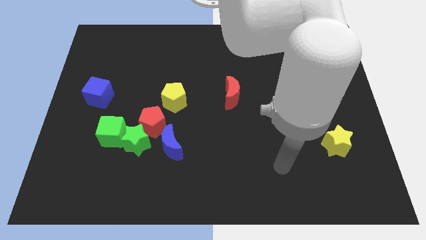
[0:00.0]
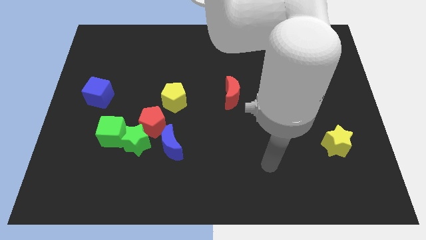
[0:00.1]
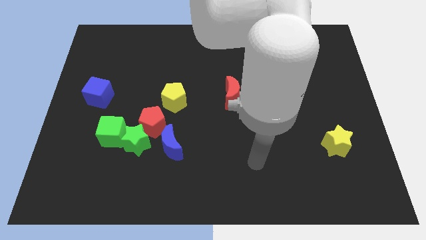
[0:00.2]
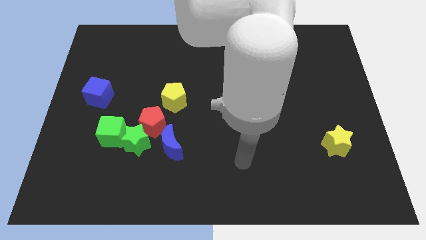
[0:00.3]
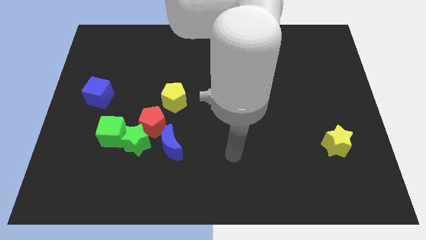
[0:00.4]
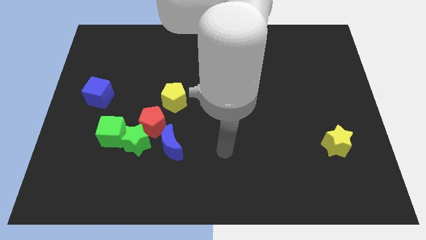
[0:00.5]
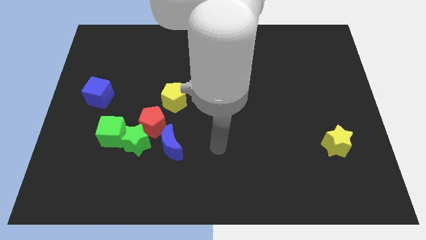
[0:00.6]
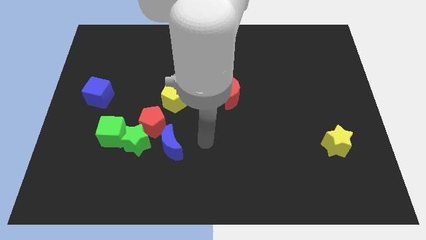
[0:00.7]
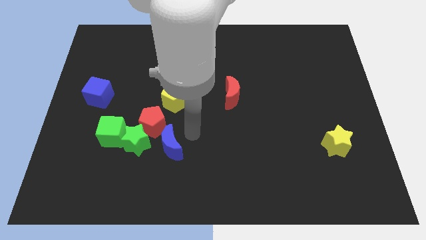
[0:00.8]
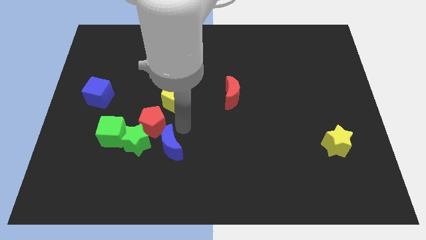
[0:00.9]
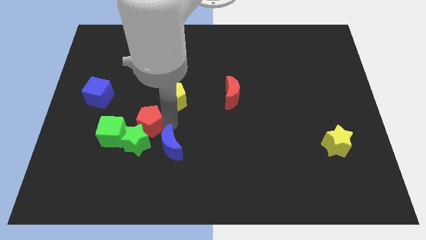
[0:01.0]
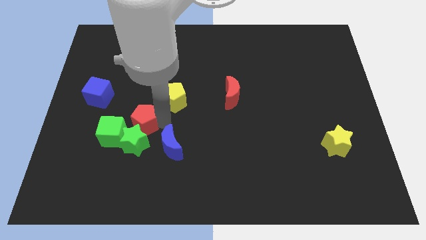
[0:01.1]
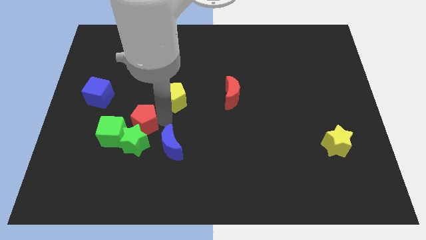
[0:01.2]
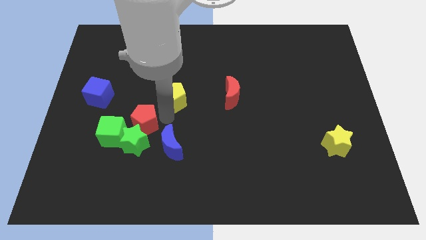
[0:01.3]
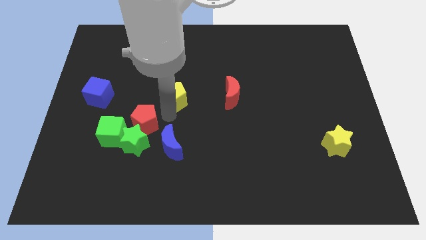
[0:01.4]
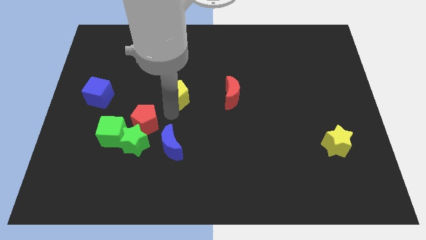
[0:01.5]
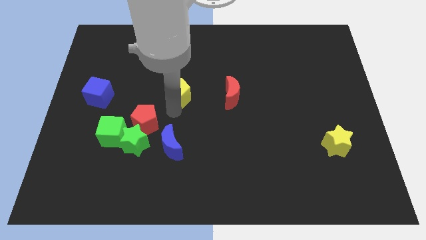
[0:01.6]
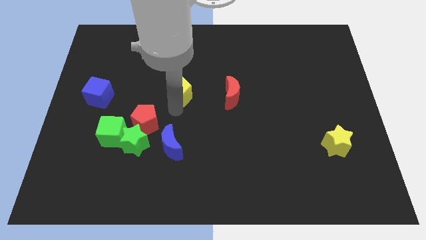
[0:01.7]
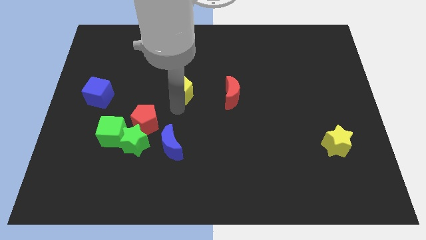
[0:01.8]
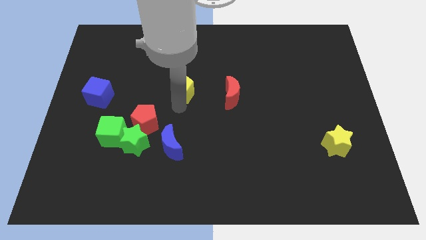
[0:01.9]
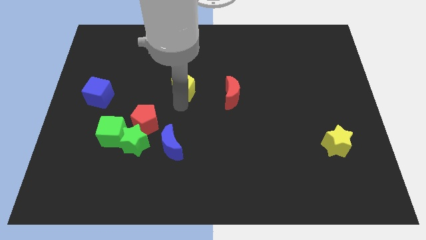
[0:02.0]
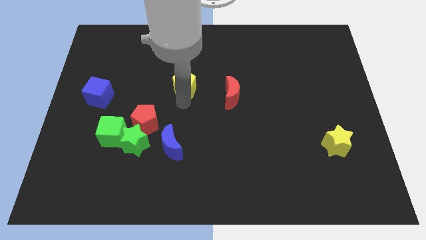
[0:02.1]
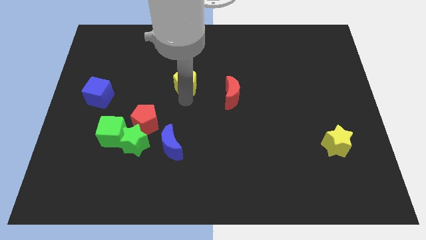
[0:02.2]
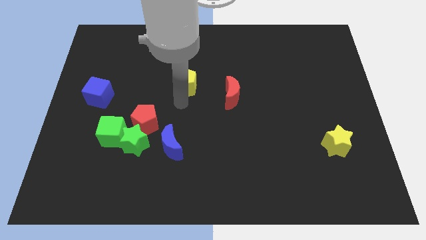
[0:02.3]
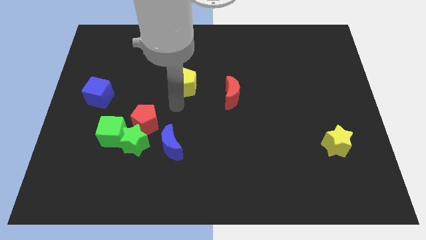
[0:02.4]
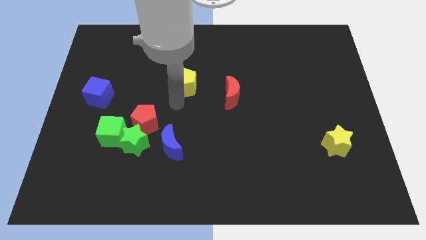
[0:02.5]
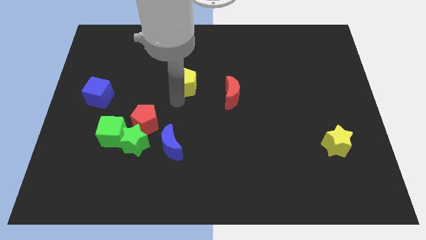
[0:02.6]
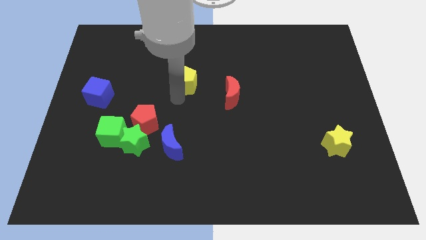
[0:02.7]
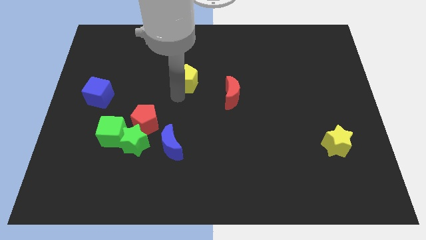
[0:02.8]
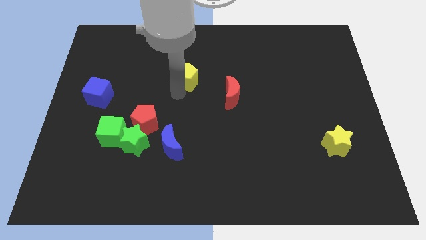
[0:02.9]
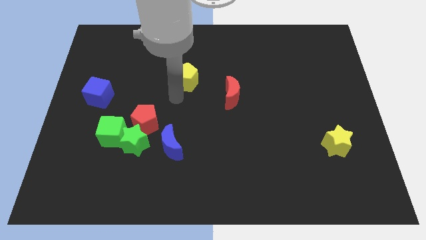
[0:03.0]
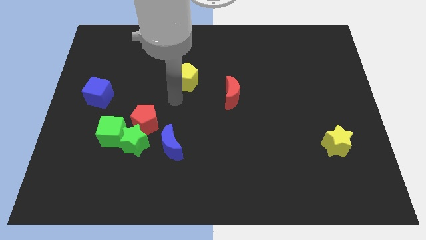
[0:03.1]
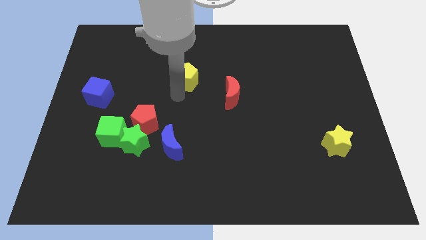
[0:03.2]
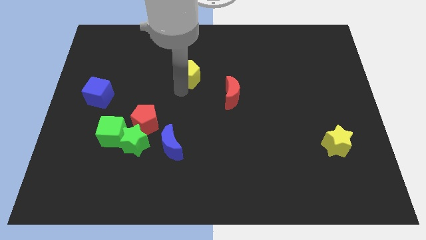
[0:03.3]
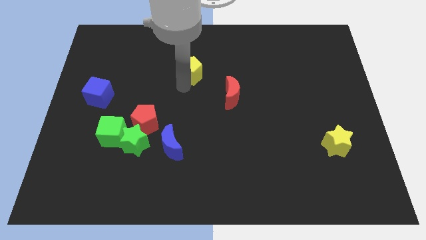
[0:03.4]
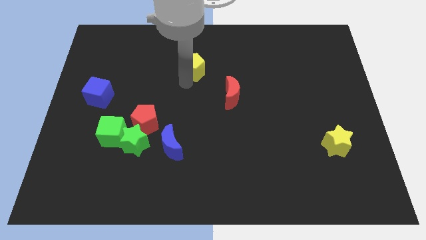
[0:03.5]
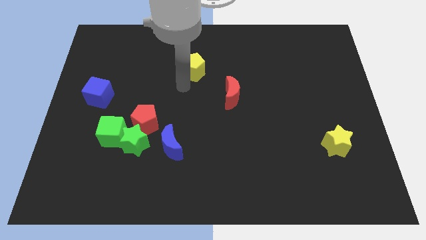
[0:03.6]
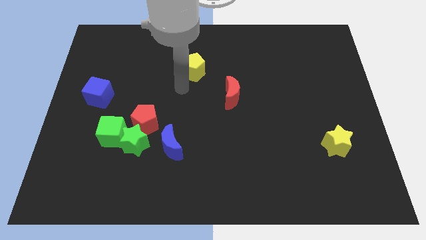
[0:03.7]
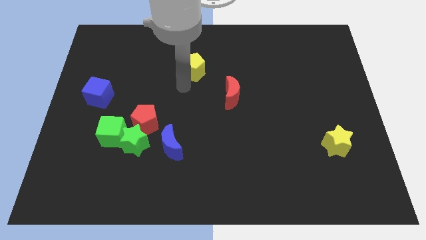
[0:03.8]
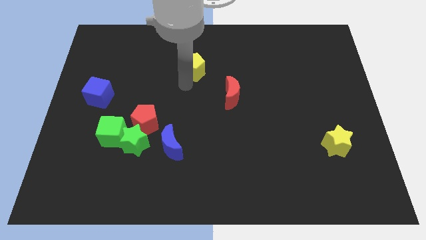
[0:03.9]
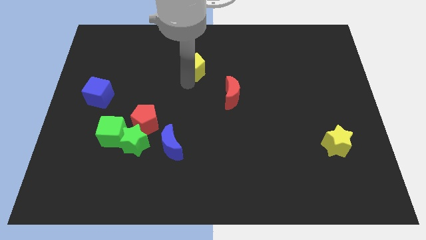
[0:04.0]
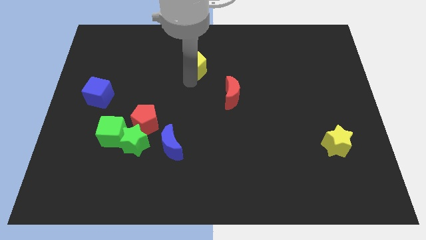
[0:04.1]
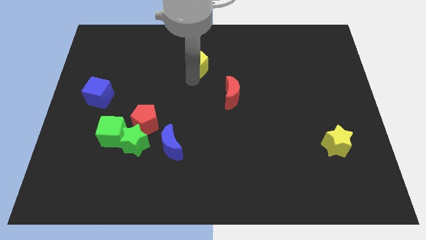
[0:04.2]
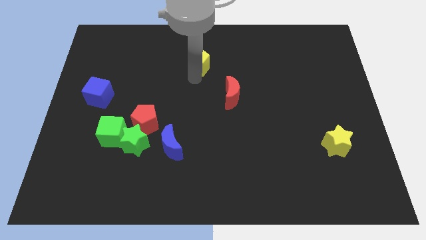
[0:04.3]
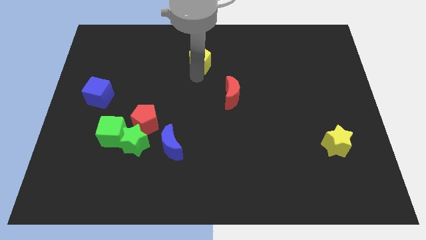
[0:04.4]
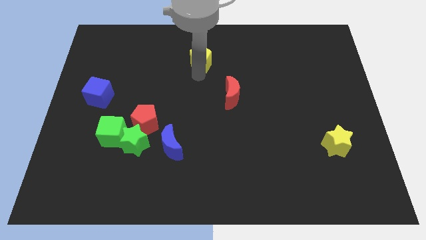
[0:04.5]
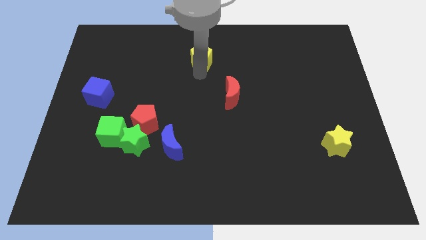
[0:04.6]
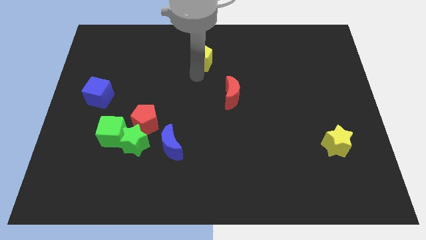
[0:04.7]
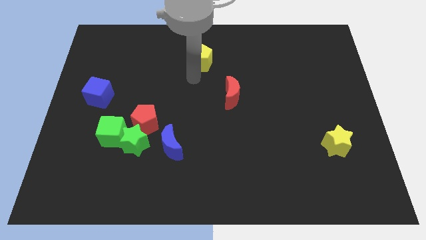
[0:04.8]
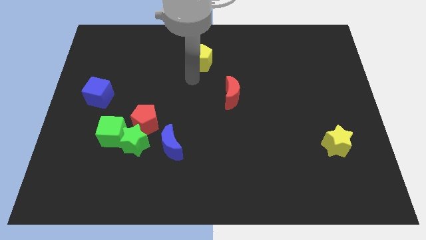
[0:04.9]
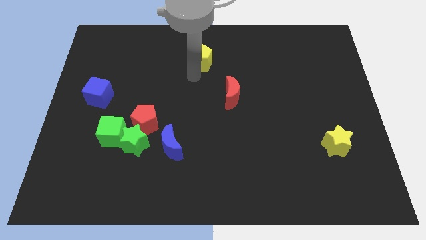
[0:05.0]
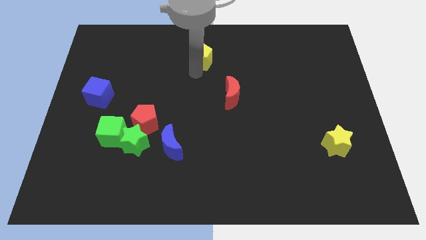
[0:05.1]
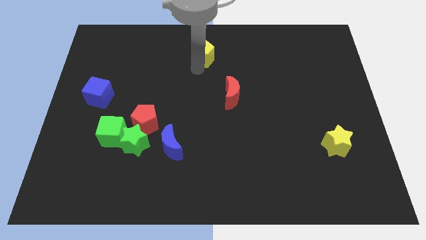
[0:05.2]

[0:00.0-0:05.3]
push the yellow pentagon to the top

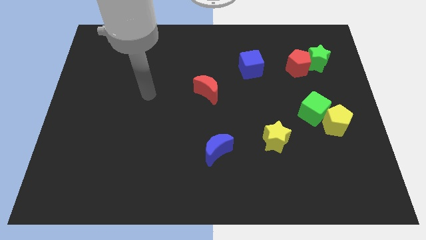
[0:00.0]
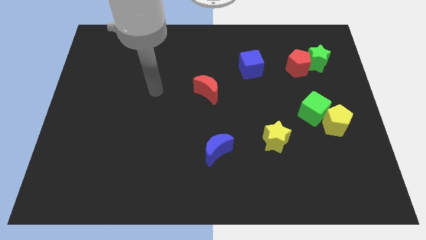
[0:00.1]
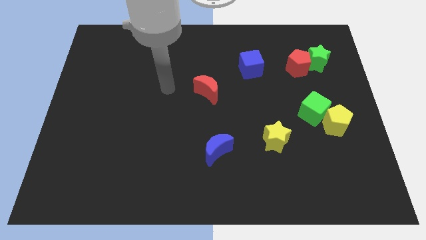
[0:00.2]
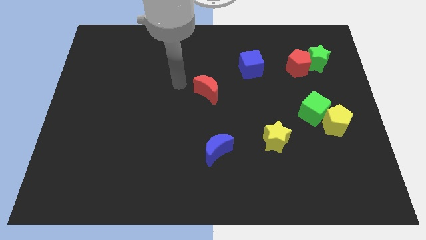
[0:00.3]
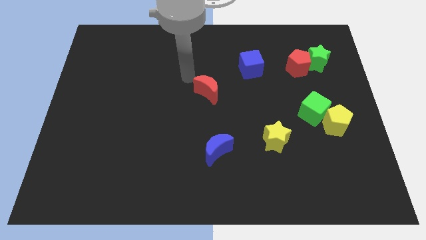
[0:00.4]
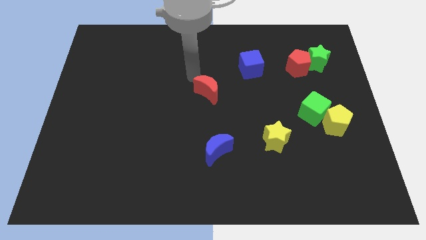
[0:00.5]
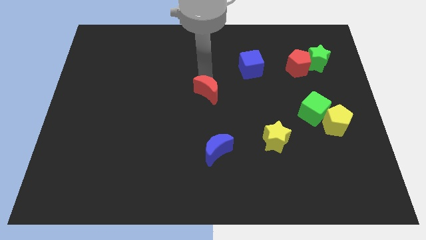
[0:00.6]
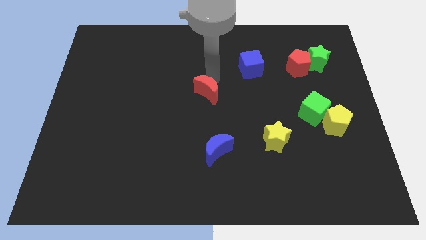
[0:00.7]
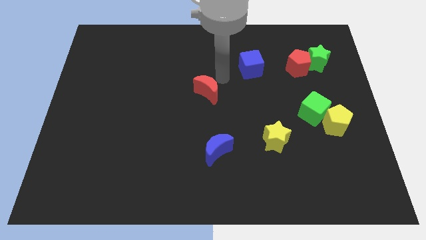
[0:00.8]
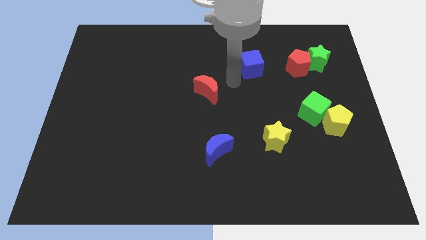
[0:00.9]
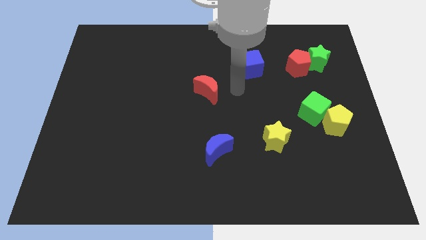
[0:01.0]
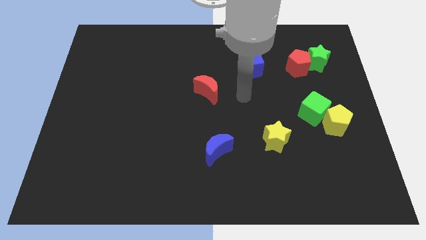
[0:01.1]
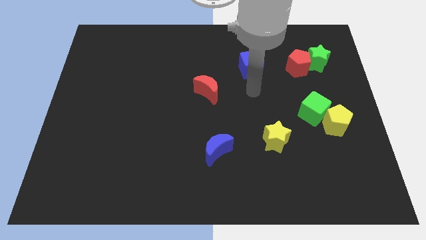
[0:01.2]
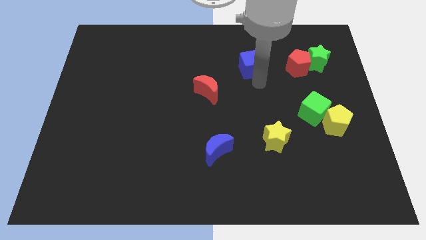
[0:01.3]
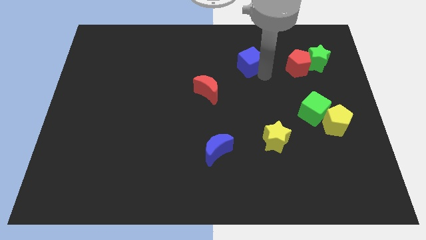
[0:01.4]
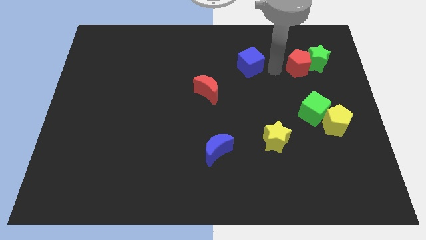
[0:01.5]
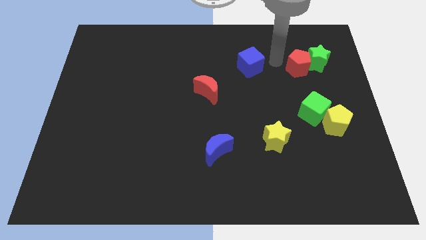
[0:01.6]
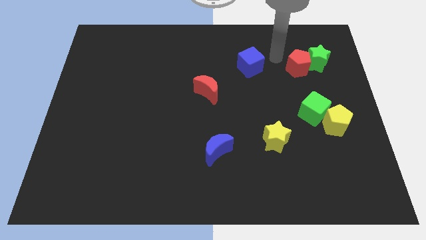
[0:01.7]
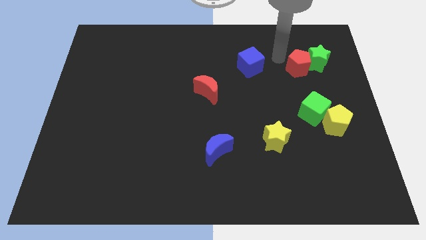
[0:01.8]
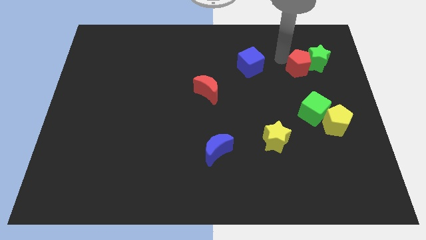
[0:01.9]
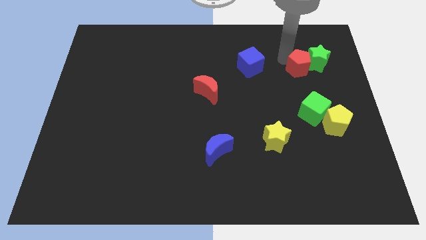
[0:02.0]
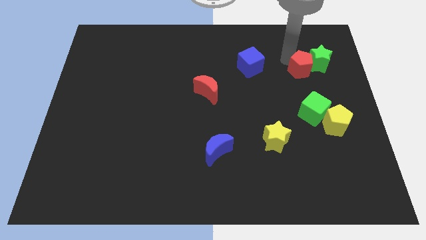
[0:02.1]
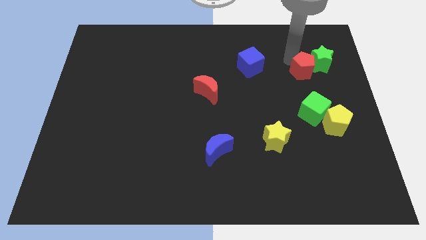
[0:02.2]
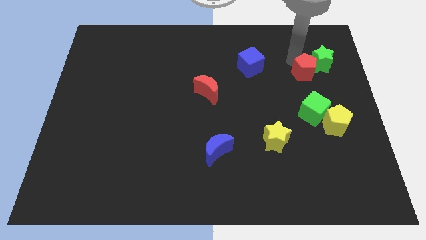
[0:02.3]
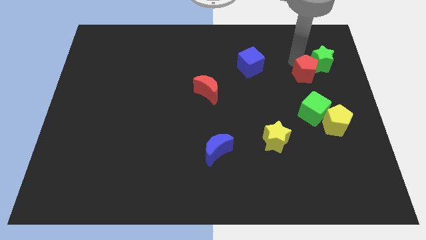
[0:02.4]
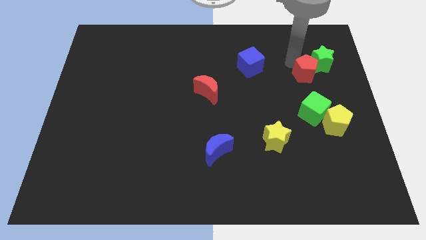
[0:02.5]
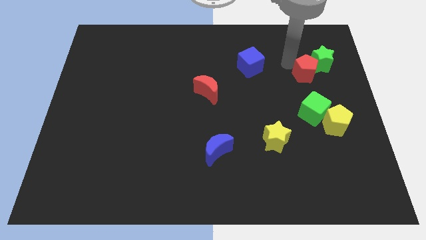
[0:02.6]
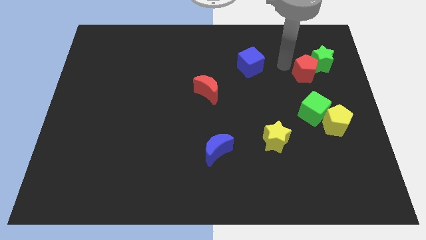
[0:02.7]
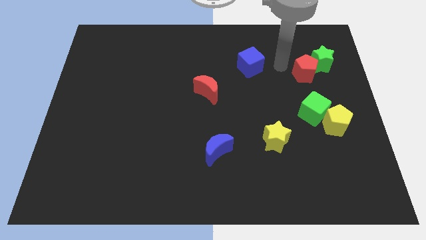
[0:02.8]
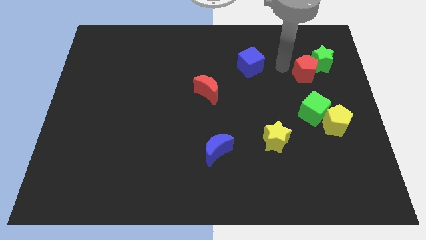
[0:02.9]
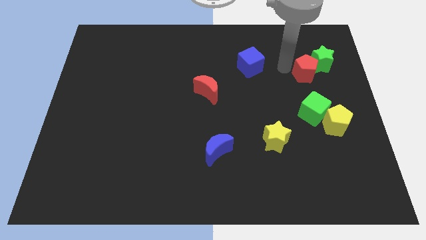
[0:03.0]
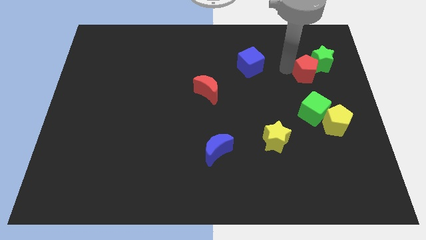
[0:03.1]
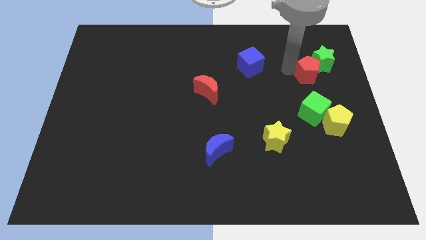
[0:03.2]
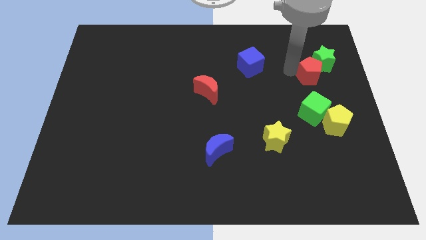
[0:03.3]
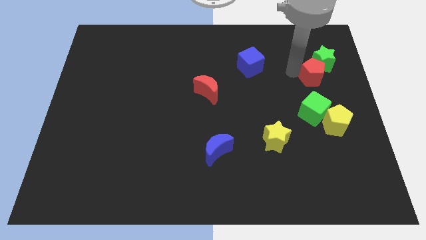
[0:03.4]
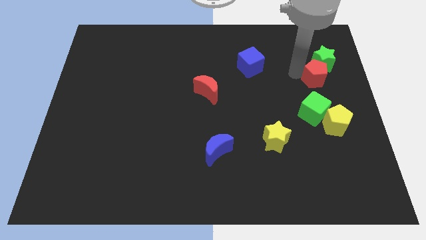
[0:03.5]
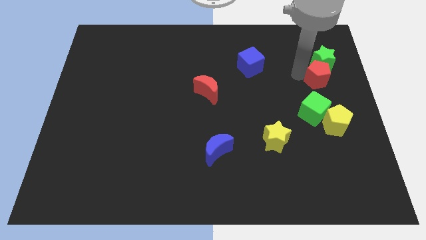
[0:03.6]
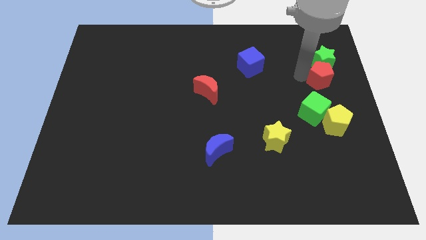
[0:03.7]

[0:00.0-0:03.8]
slide the red pentagon to the center right
